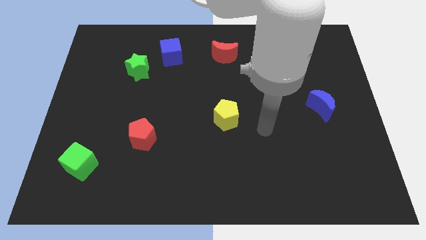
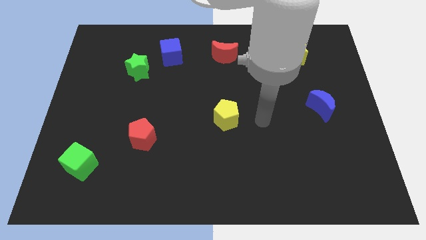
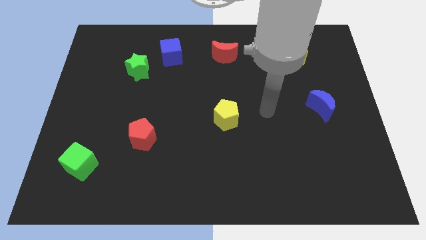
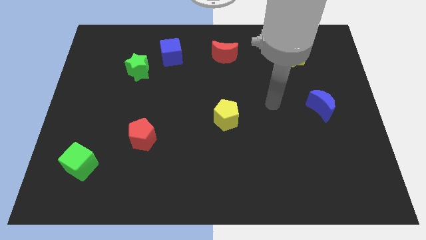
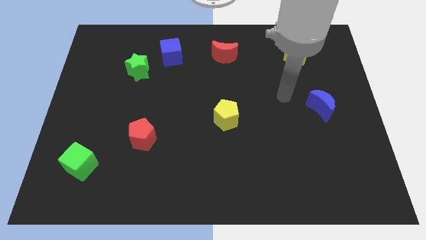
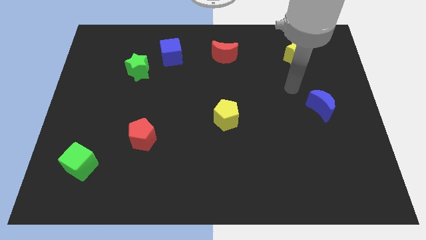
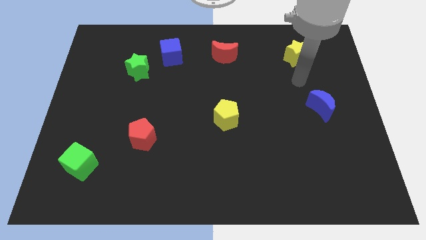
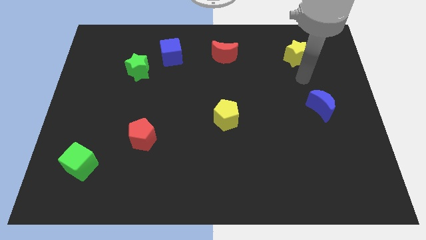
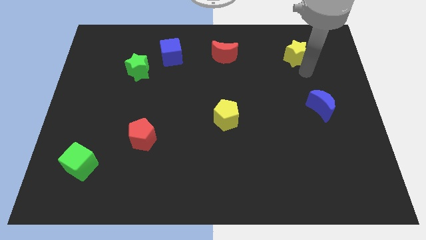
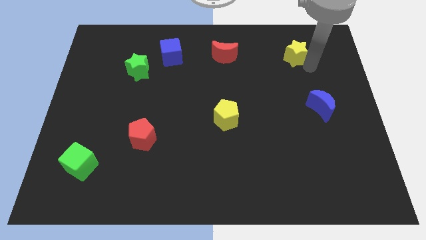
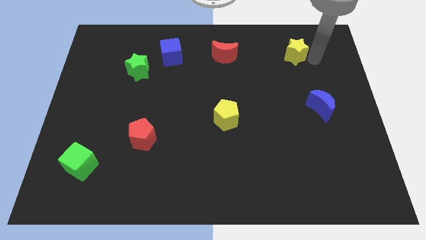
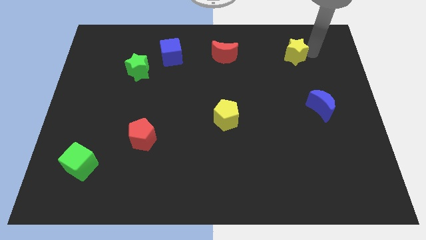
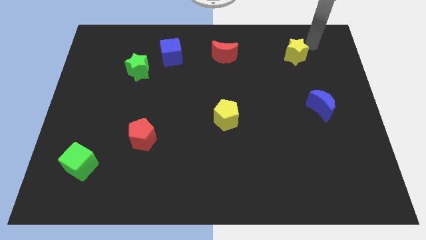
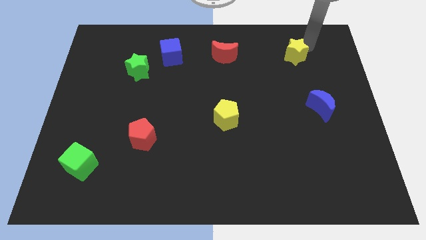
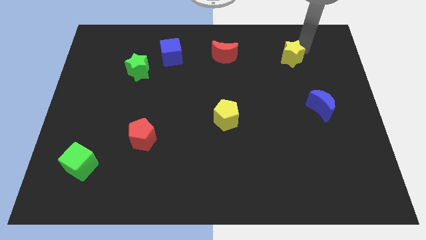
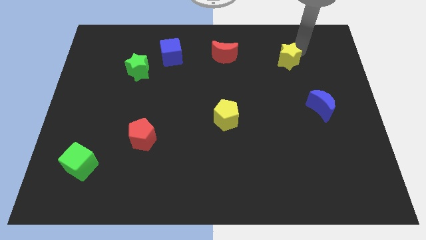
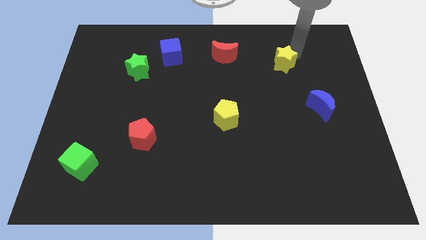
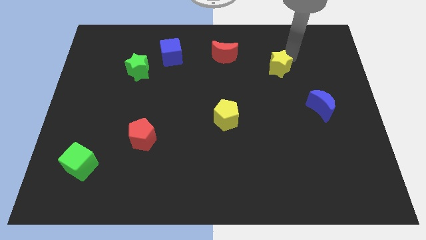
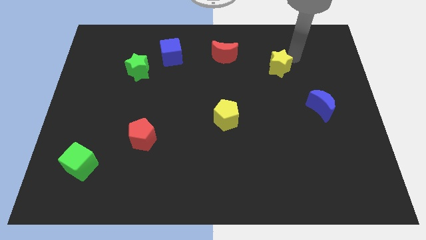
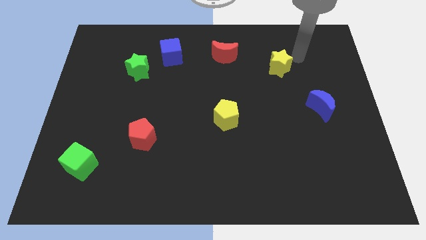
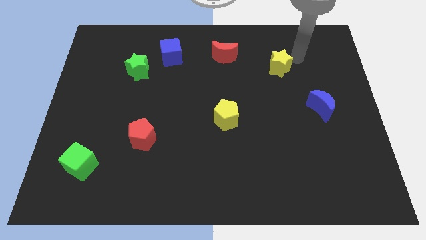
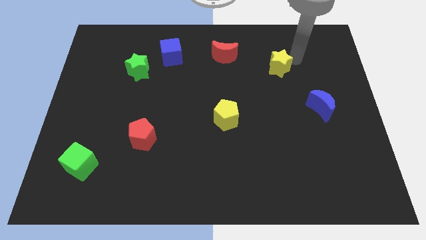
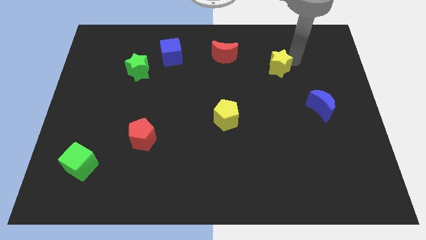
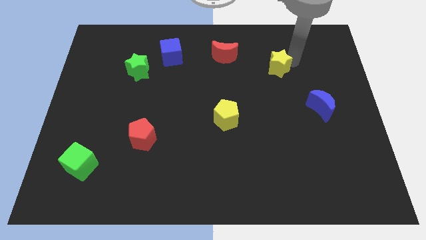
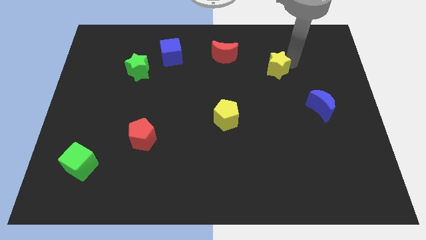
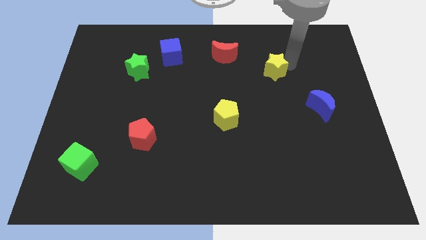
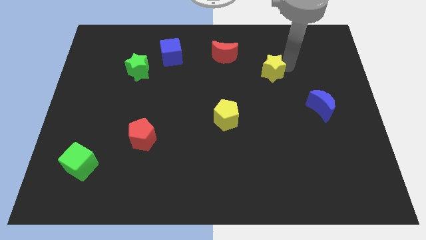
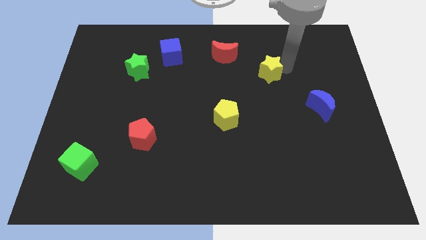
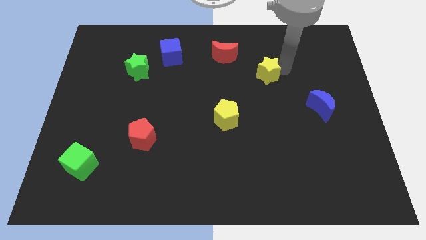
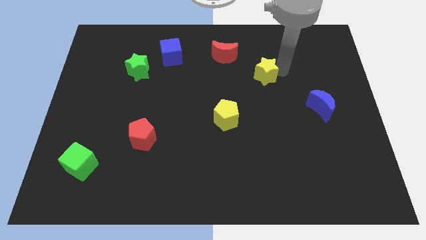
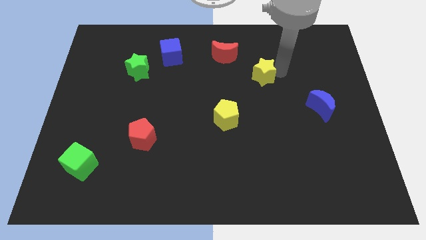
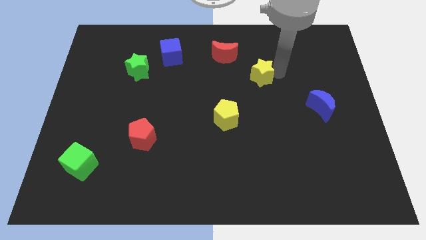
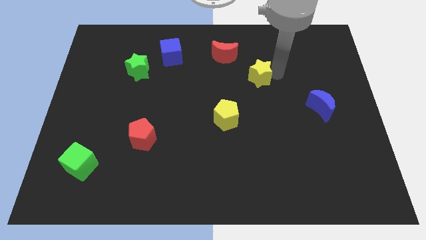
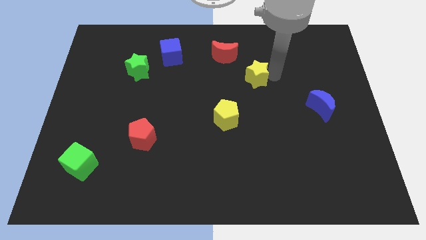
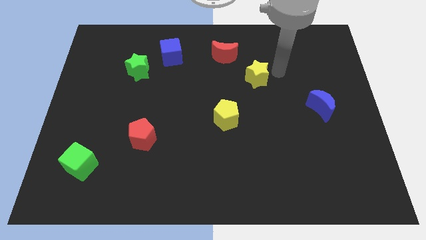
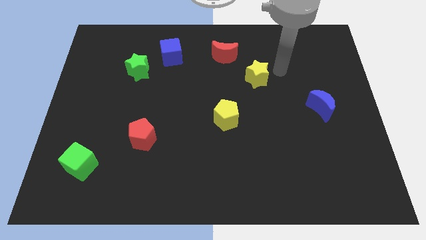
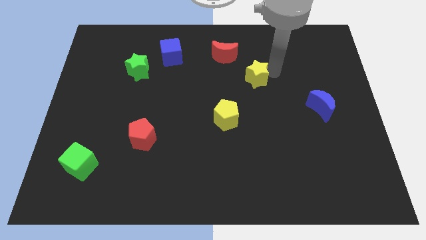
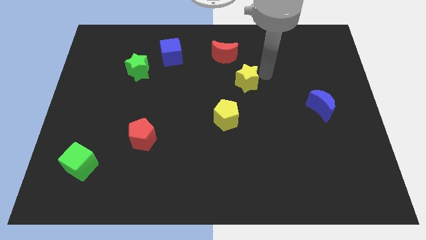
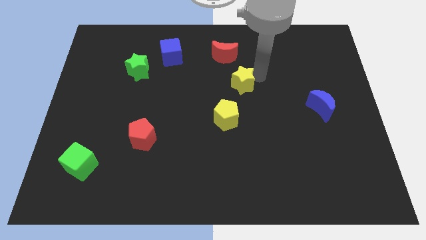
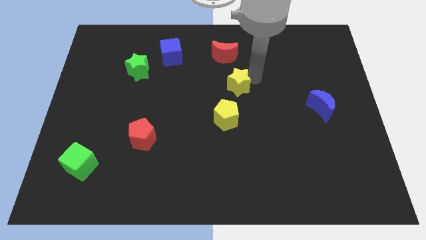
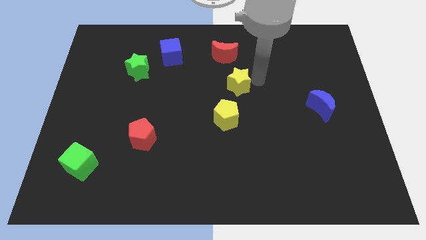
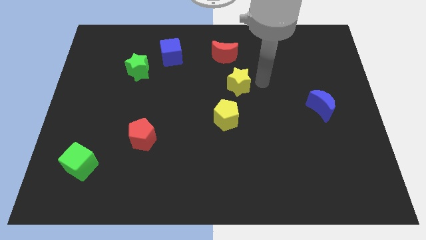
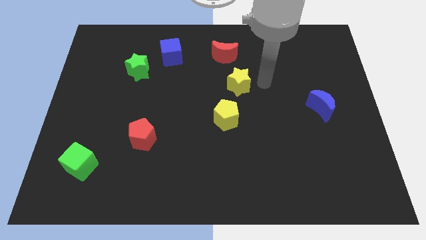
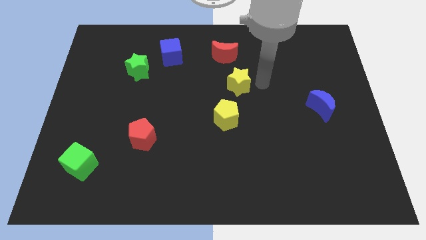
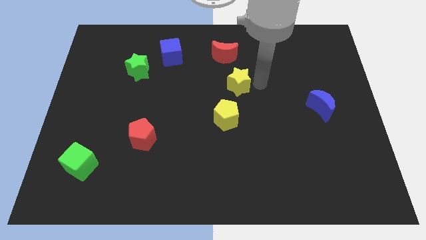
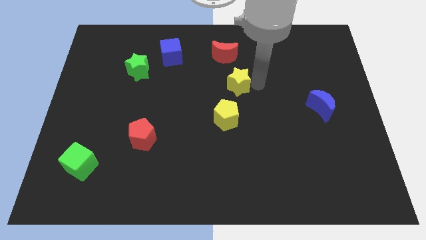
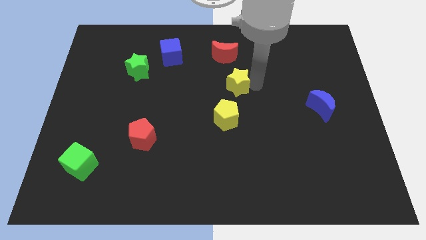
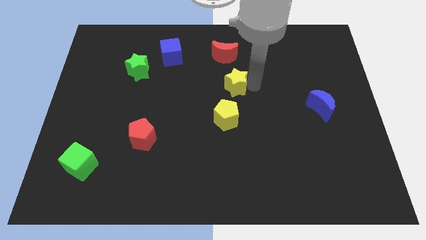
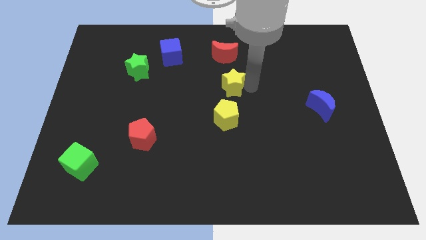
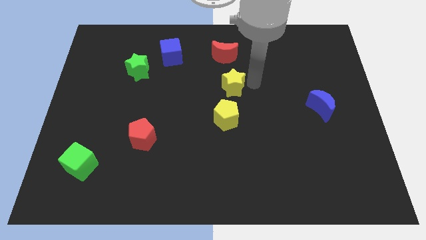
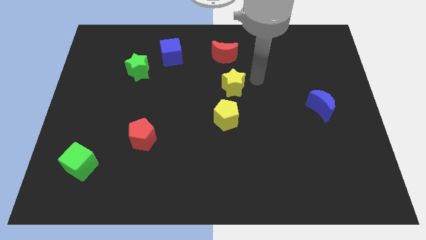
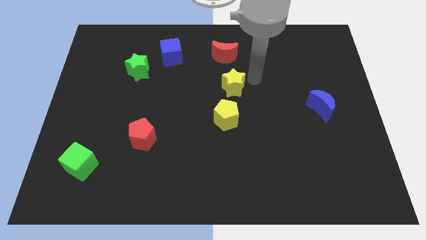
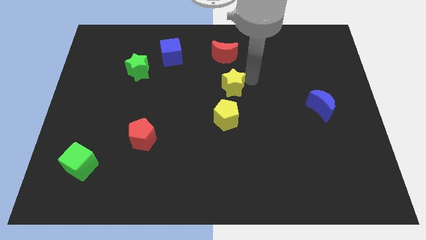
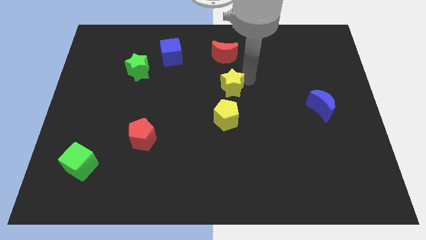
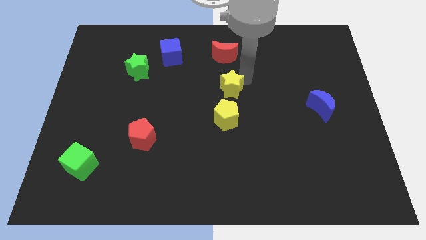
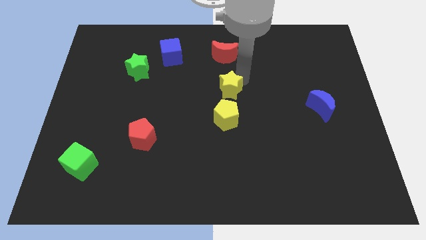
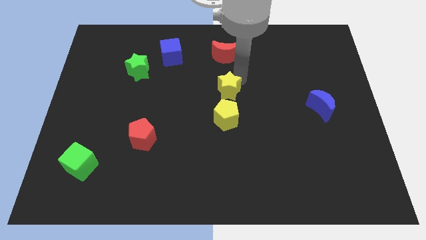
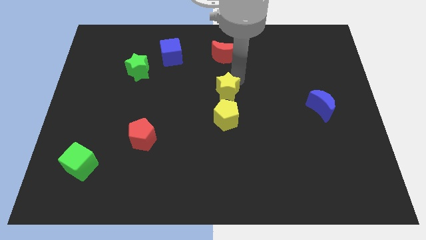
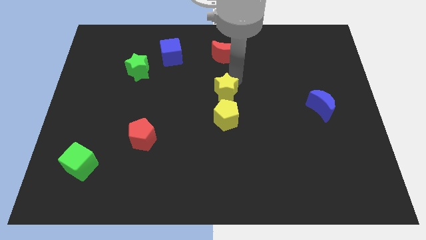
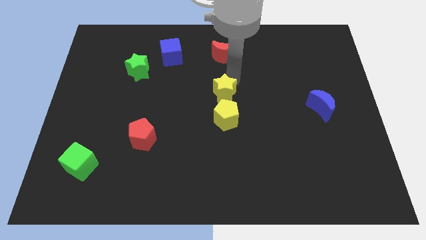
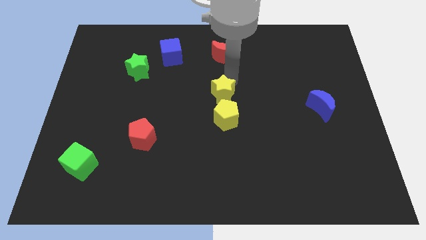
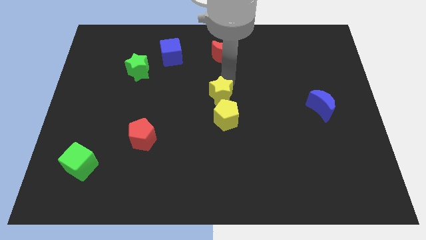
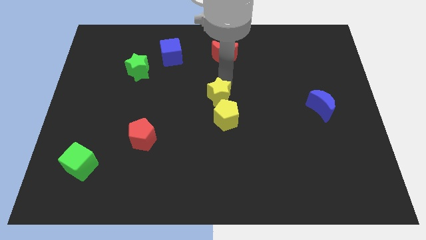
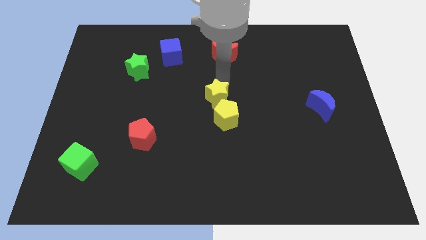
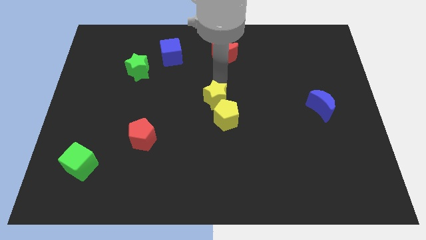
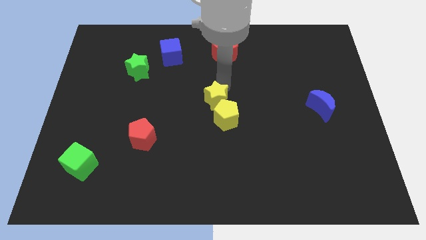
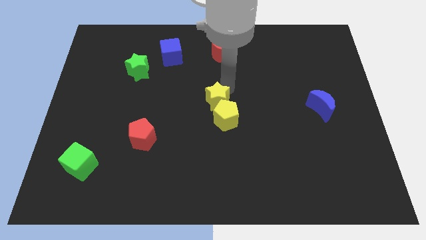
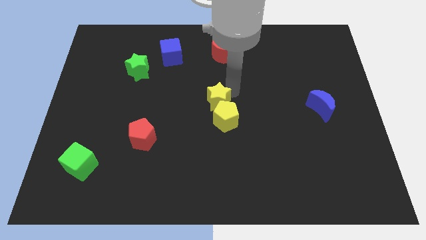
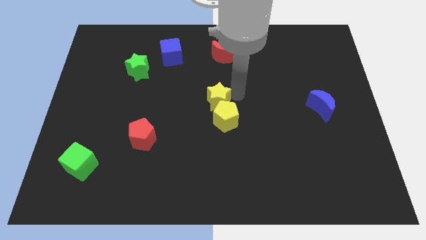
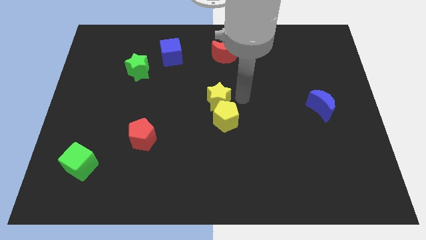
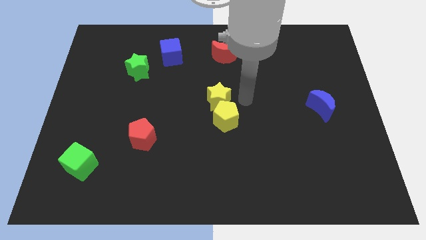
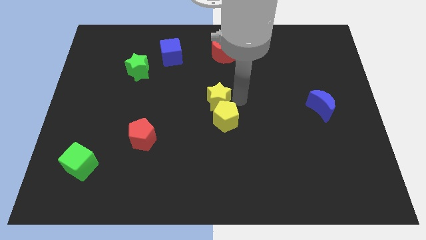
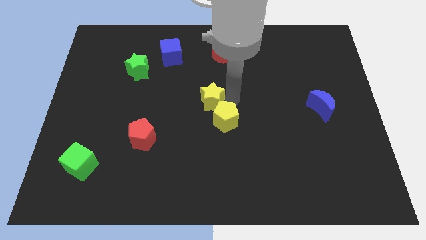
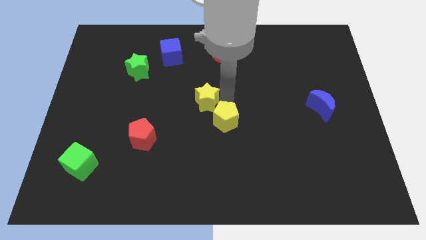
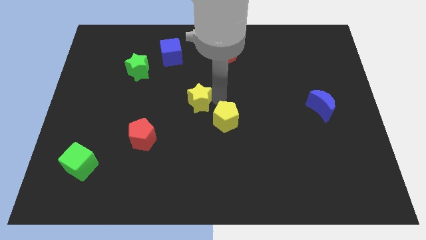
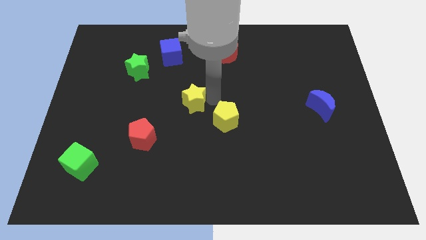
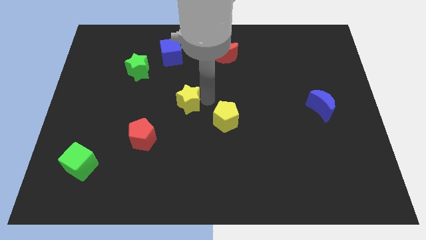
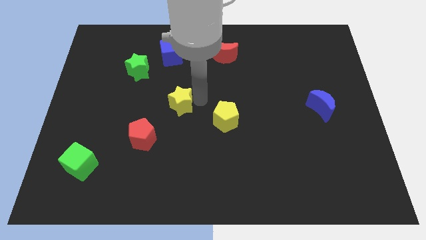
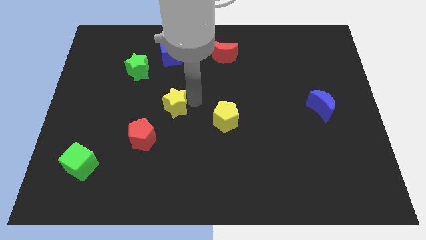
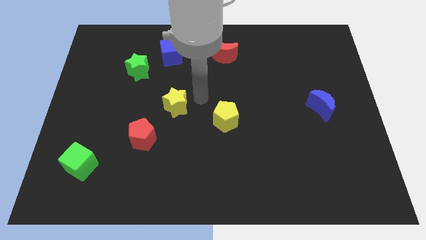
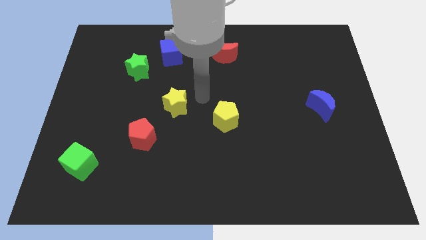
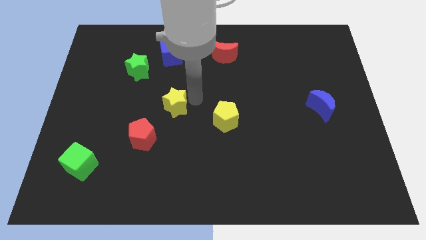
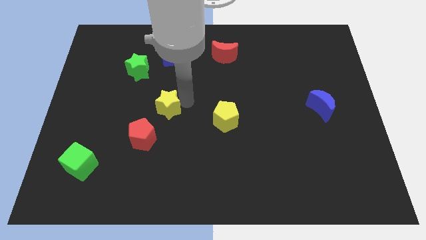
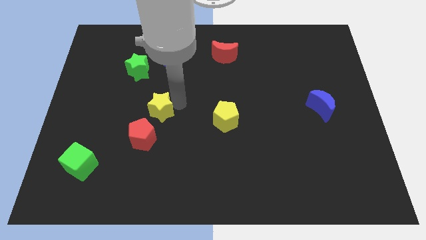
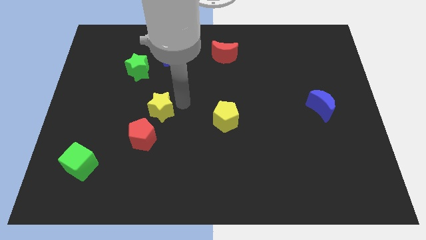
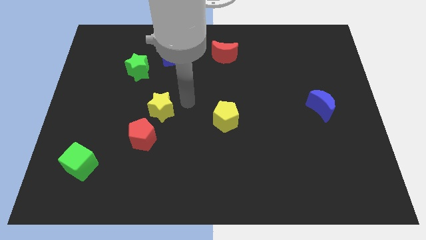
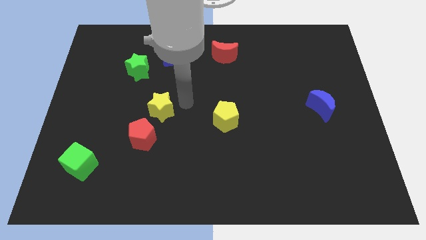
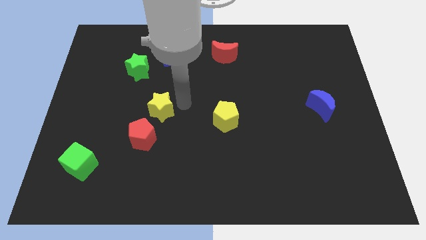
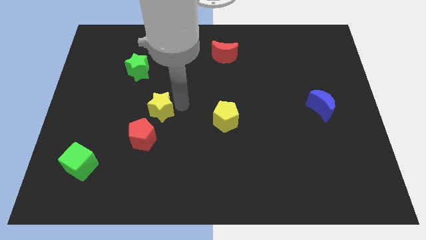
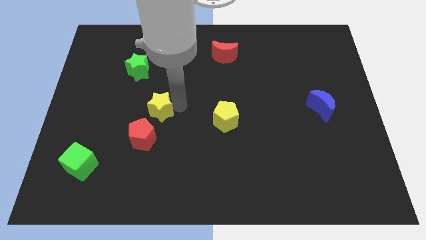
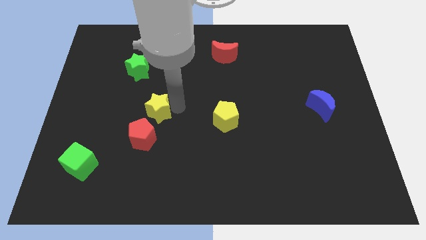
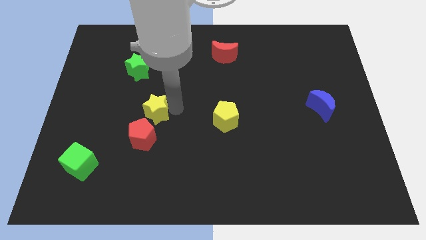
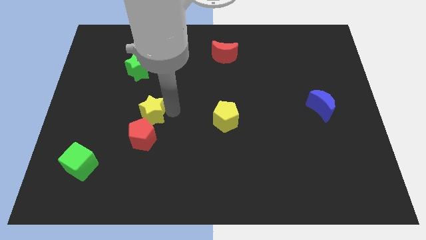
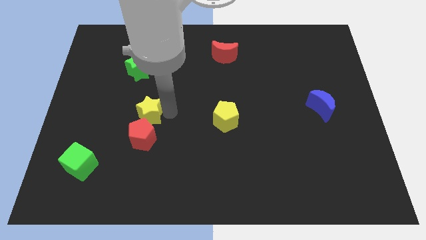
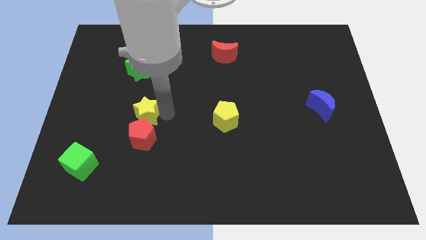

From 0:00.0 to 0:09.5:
move the yellow star to the top left side of the red pentagon
